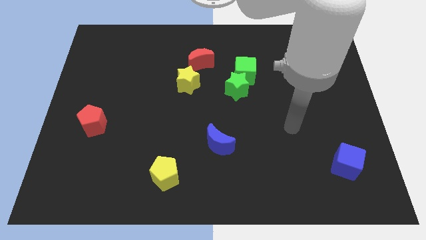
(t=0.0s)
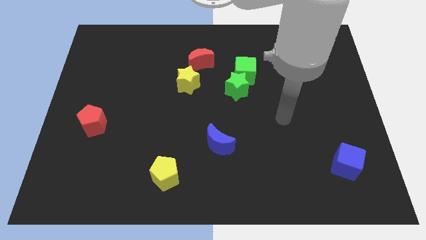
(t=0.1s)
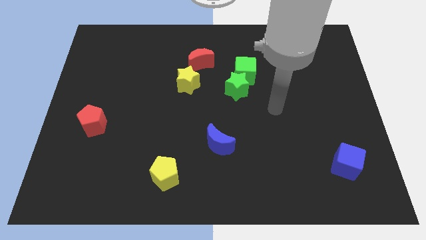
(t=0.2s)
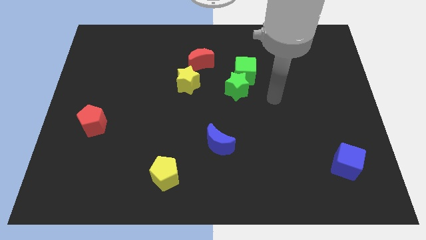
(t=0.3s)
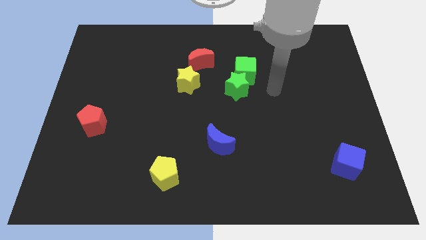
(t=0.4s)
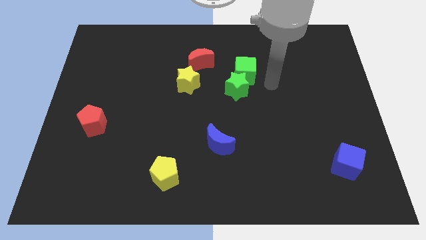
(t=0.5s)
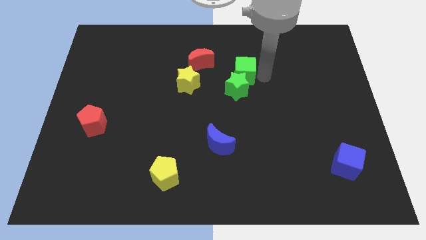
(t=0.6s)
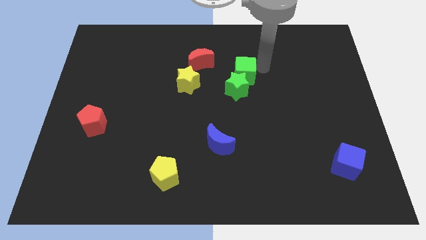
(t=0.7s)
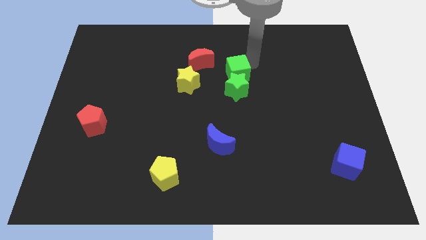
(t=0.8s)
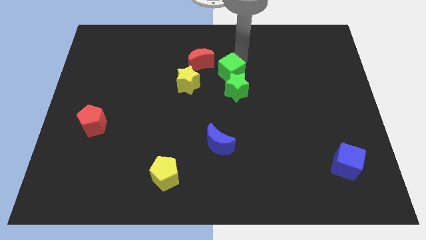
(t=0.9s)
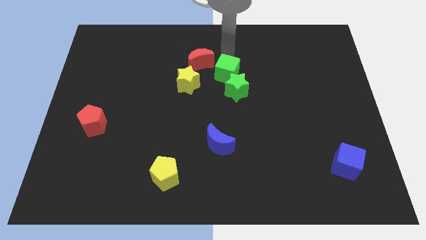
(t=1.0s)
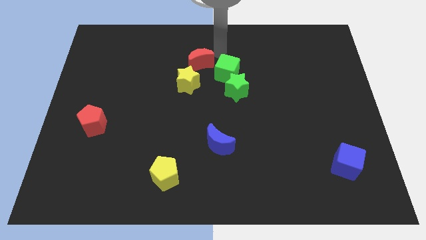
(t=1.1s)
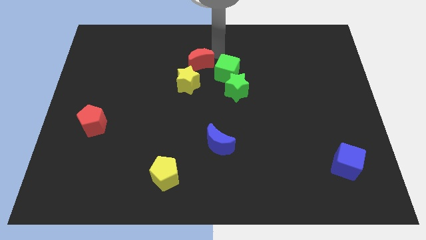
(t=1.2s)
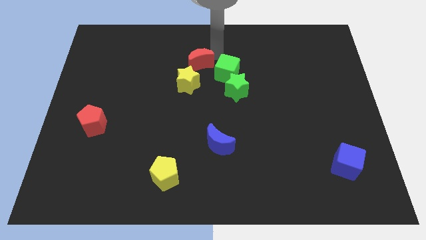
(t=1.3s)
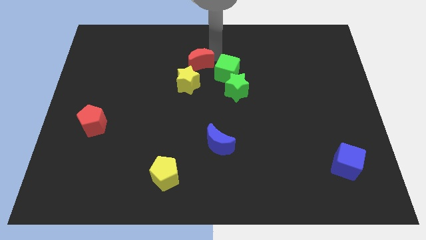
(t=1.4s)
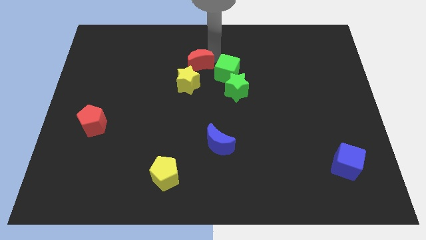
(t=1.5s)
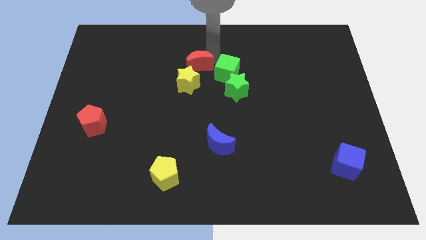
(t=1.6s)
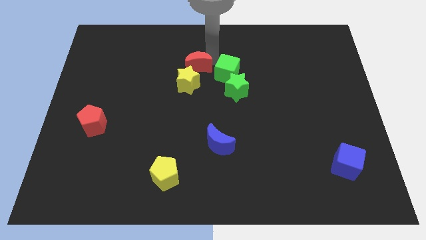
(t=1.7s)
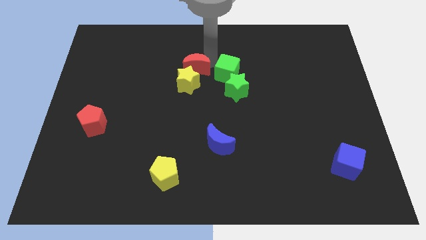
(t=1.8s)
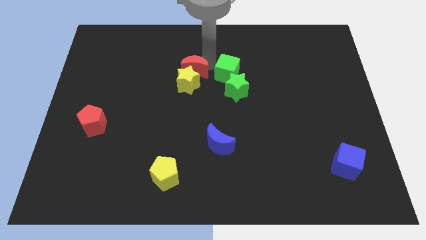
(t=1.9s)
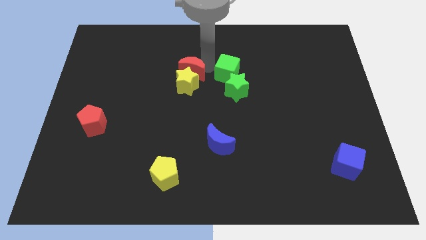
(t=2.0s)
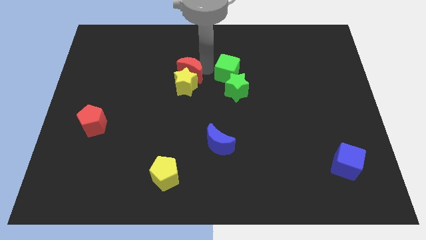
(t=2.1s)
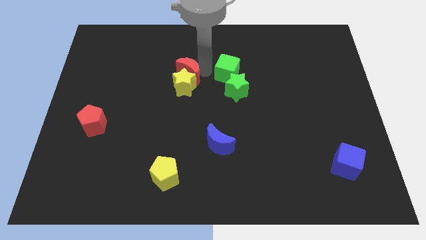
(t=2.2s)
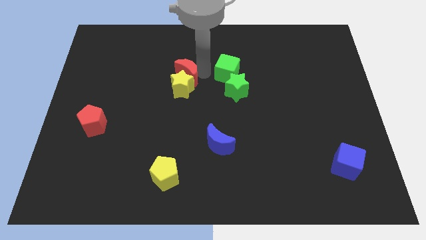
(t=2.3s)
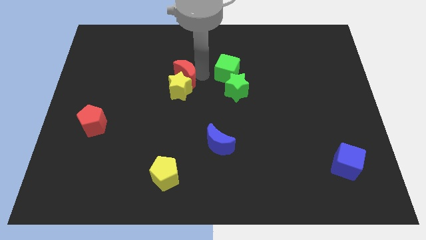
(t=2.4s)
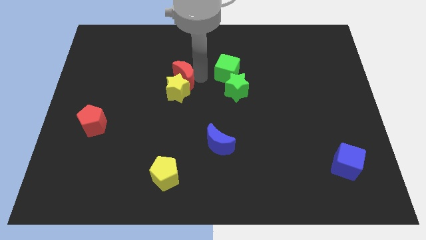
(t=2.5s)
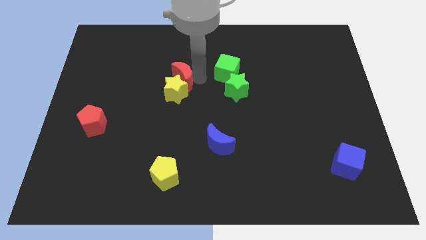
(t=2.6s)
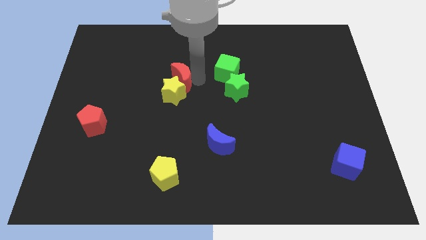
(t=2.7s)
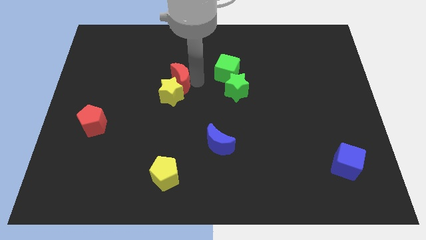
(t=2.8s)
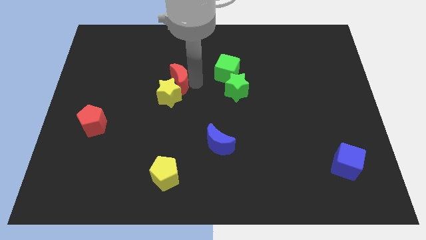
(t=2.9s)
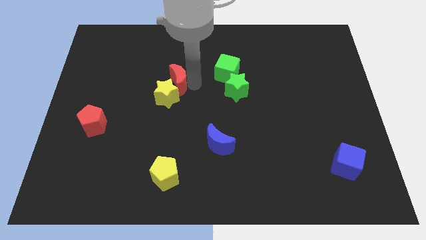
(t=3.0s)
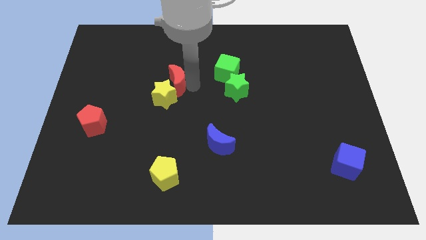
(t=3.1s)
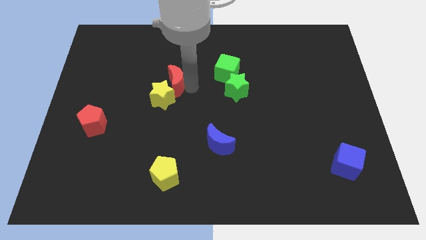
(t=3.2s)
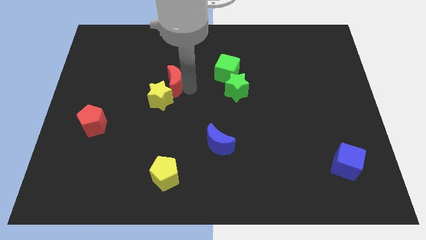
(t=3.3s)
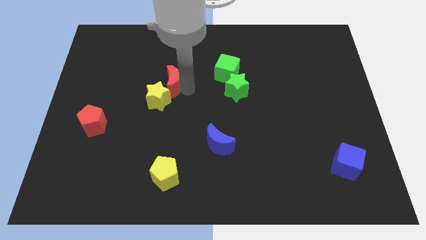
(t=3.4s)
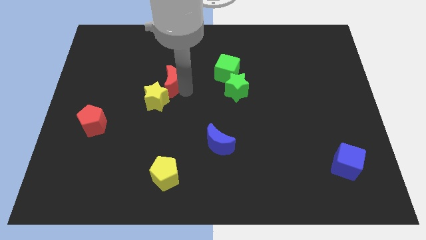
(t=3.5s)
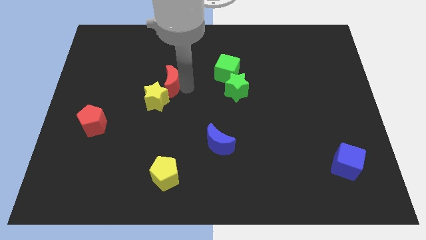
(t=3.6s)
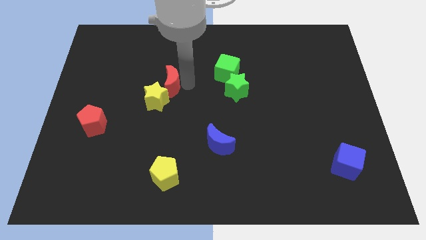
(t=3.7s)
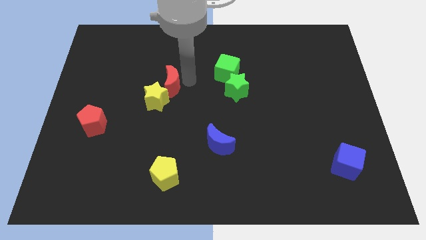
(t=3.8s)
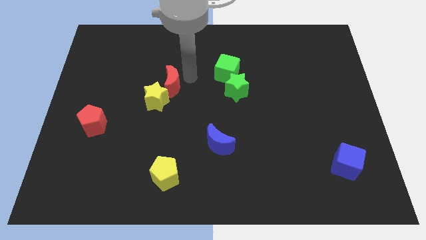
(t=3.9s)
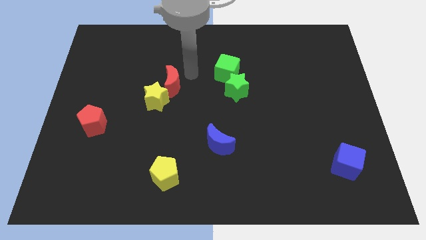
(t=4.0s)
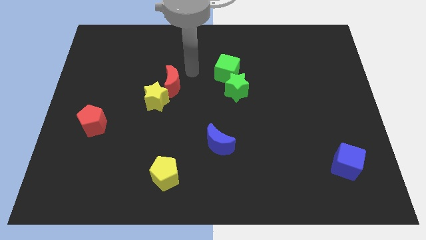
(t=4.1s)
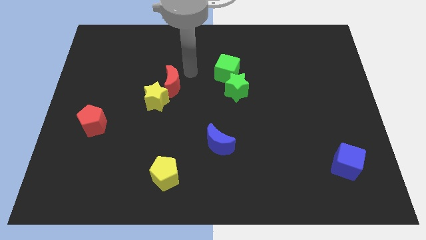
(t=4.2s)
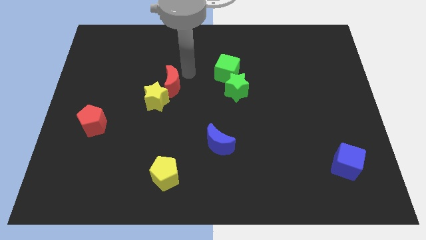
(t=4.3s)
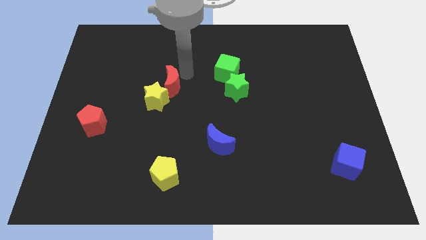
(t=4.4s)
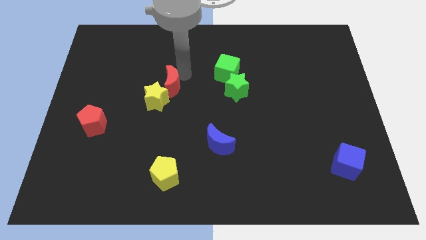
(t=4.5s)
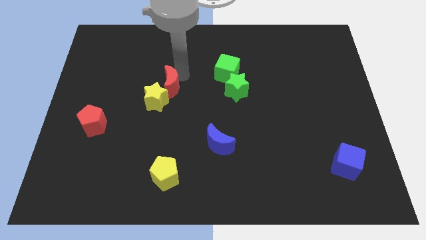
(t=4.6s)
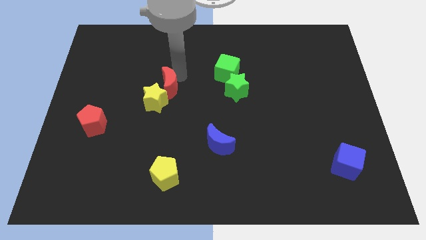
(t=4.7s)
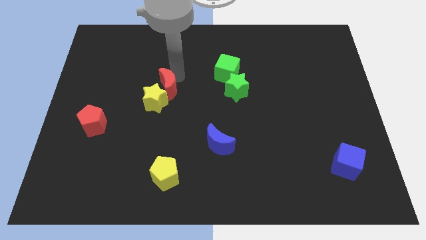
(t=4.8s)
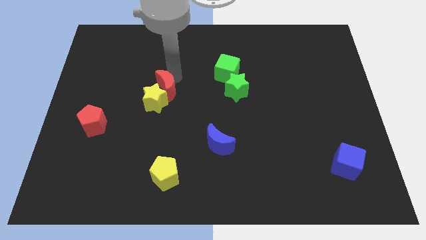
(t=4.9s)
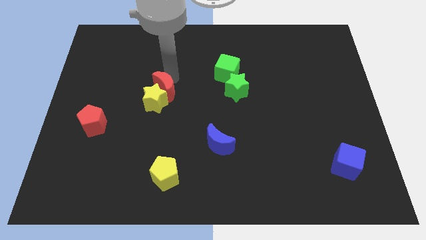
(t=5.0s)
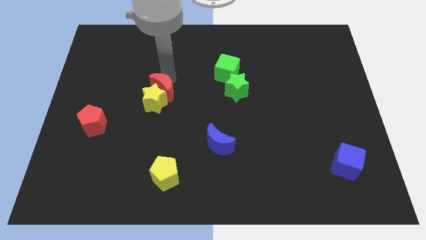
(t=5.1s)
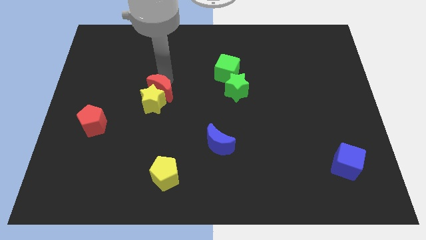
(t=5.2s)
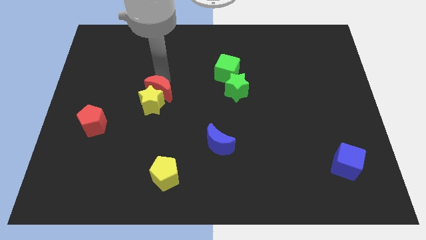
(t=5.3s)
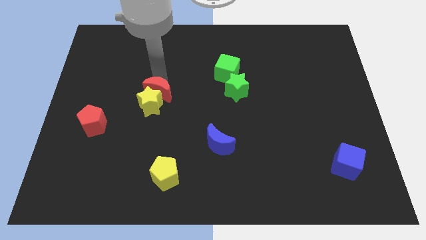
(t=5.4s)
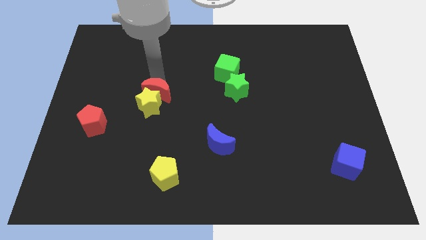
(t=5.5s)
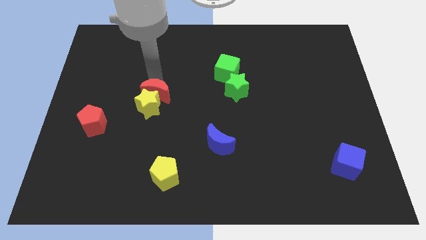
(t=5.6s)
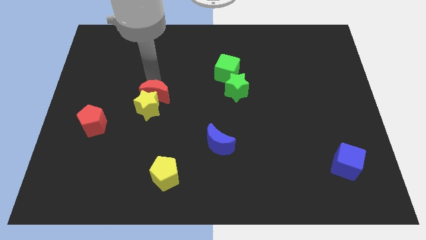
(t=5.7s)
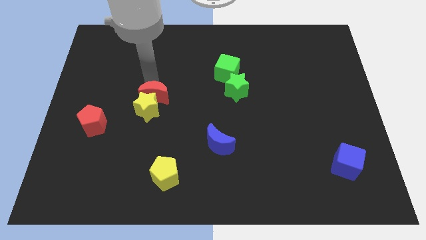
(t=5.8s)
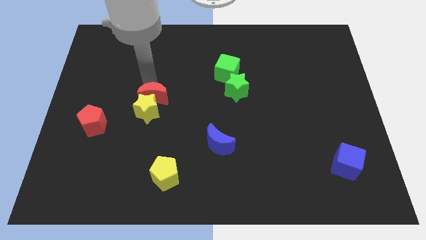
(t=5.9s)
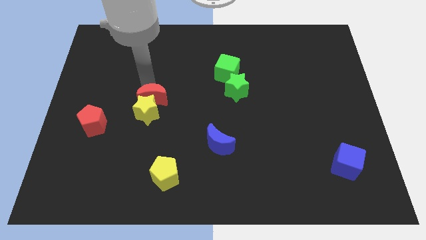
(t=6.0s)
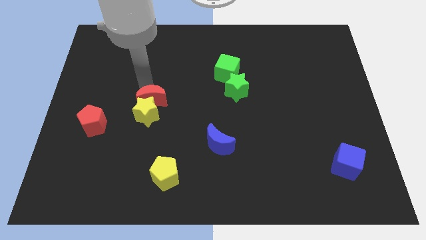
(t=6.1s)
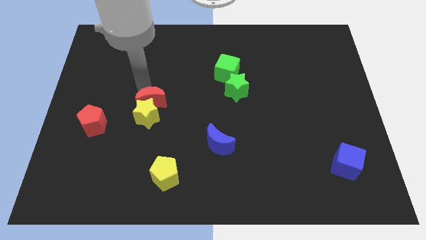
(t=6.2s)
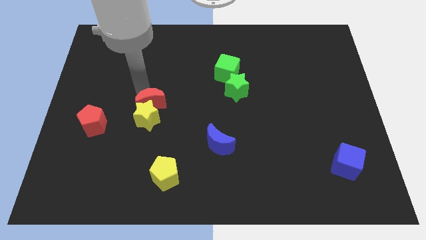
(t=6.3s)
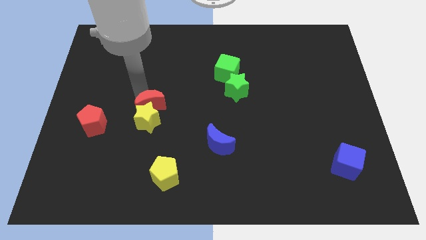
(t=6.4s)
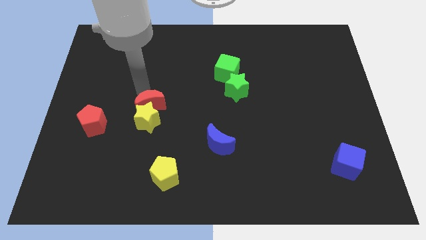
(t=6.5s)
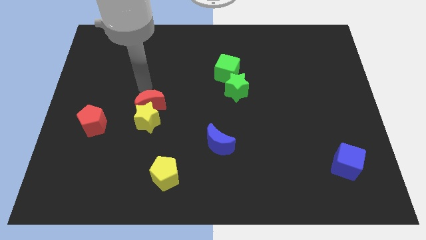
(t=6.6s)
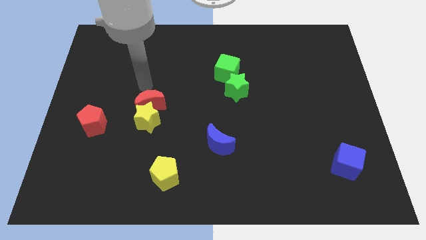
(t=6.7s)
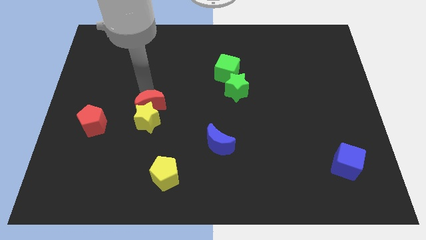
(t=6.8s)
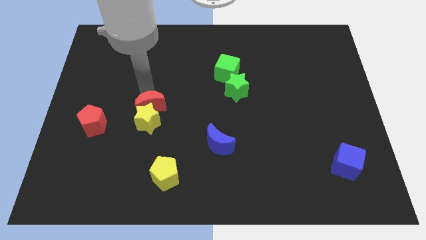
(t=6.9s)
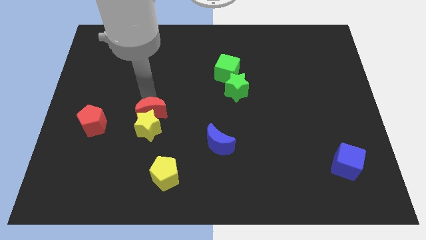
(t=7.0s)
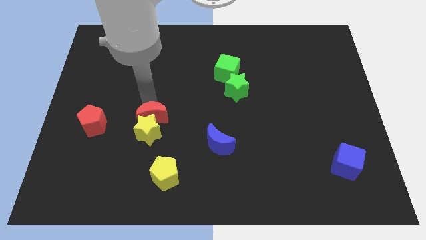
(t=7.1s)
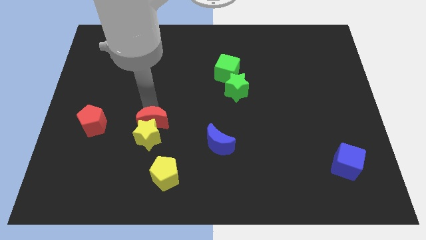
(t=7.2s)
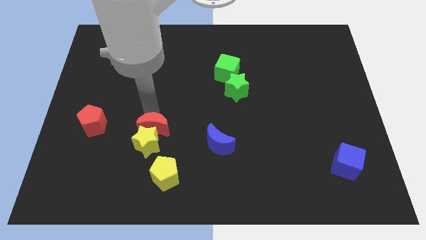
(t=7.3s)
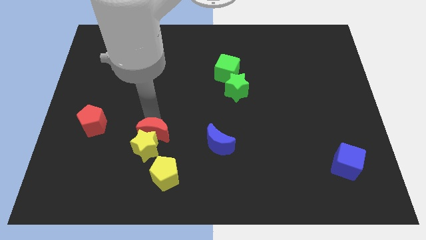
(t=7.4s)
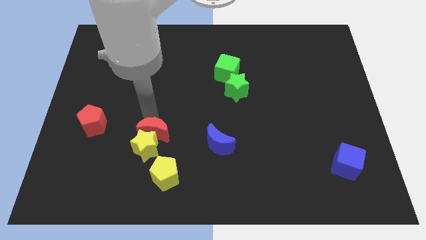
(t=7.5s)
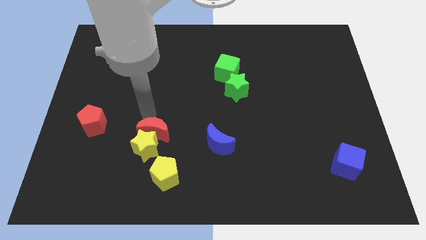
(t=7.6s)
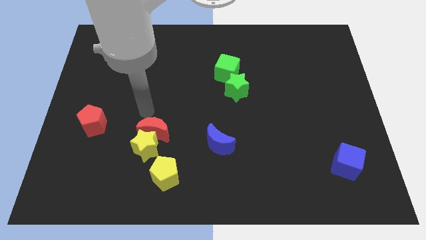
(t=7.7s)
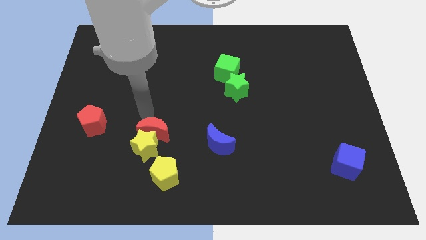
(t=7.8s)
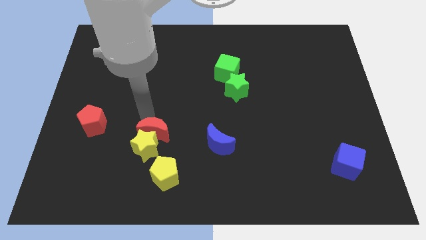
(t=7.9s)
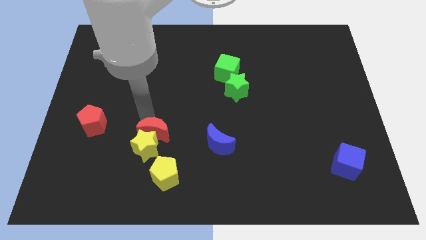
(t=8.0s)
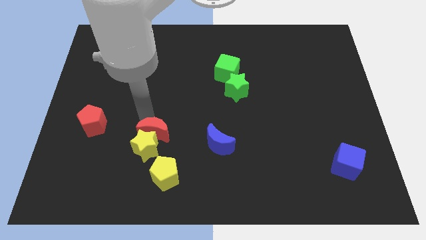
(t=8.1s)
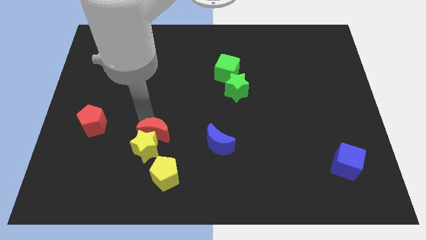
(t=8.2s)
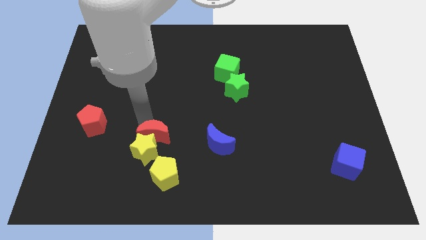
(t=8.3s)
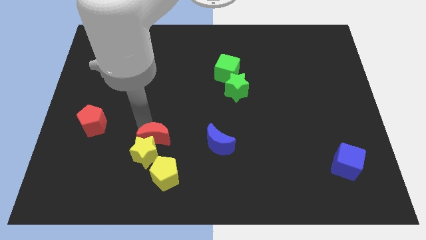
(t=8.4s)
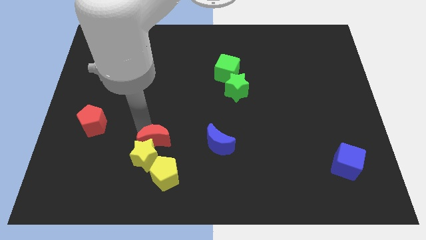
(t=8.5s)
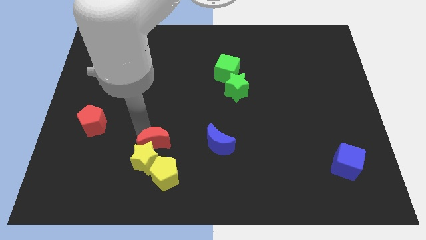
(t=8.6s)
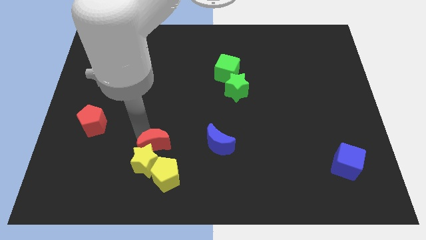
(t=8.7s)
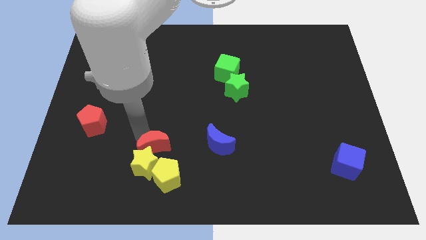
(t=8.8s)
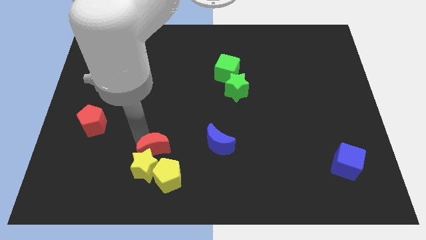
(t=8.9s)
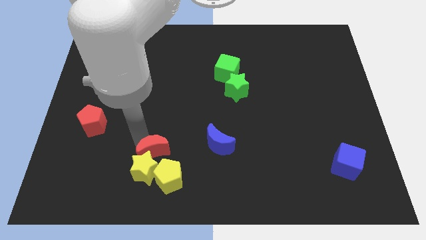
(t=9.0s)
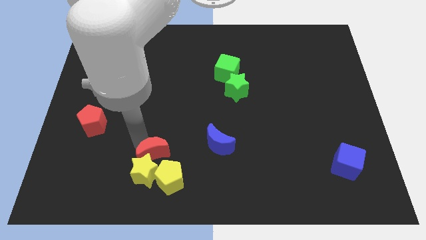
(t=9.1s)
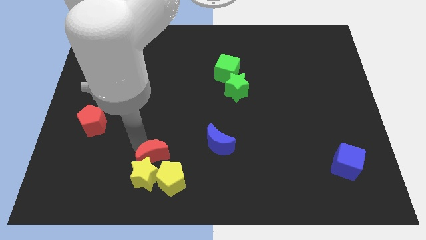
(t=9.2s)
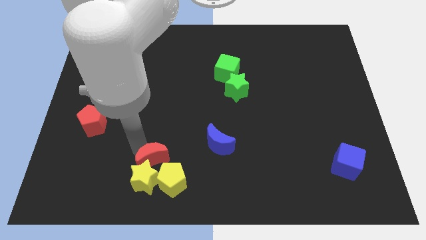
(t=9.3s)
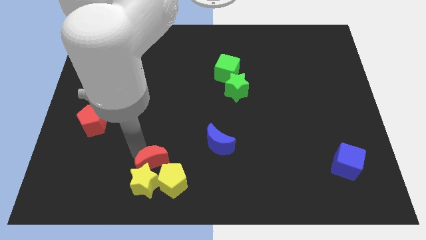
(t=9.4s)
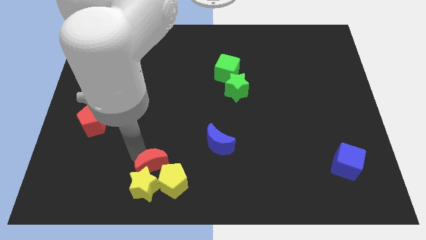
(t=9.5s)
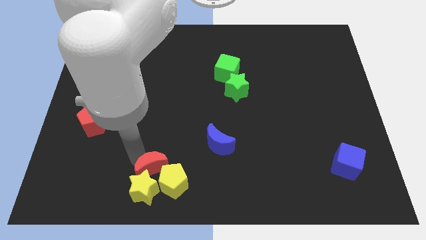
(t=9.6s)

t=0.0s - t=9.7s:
push the red moon towards the yellow pentagon
